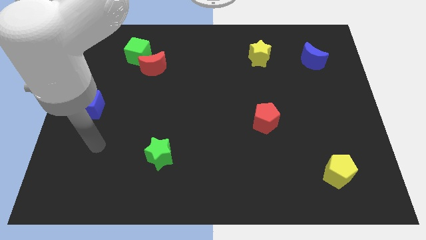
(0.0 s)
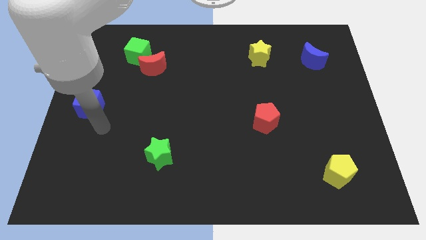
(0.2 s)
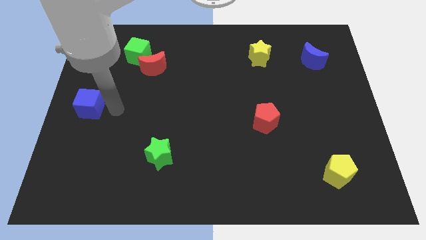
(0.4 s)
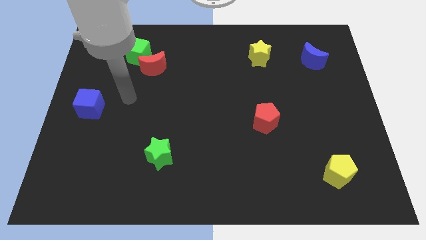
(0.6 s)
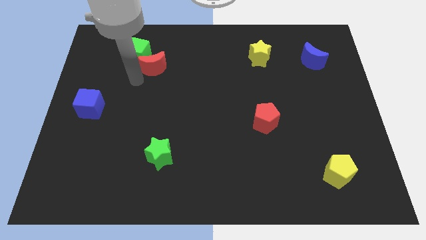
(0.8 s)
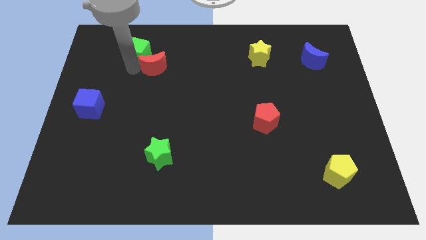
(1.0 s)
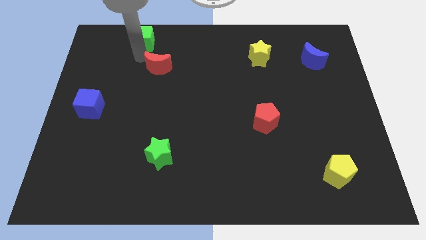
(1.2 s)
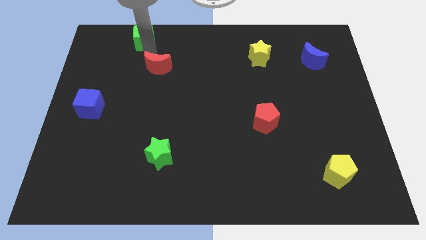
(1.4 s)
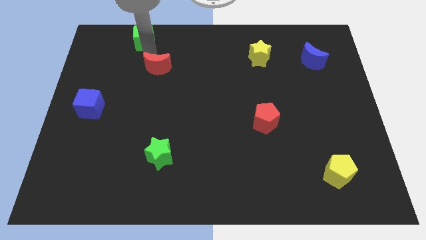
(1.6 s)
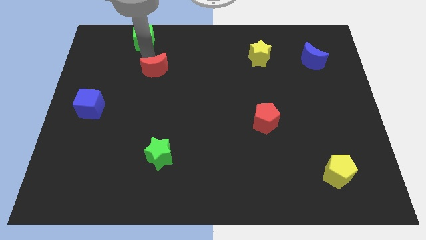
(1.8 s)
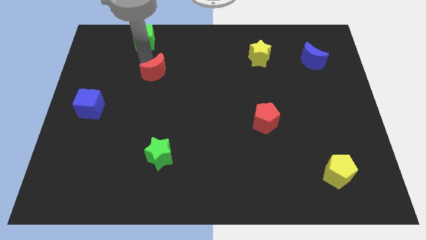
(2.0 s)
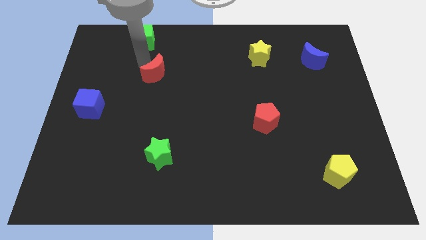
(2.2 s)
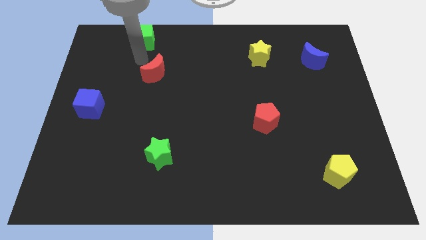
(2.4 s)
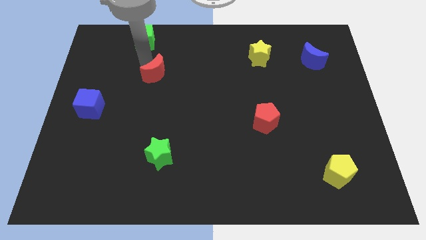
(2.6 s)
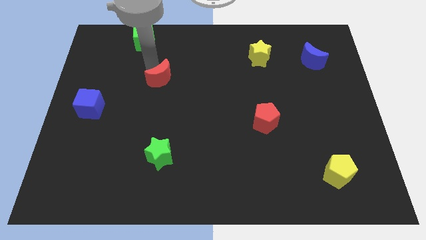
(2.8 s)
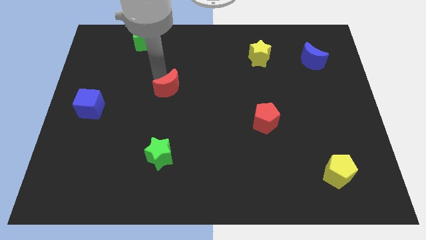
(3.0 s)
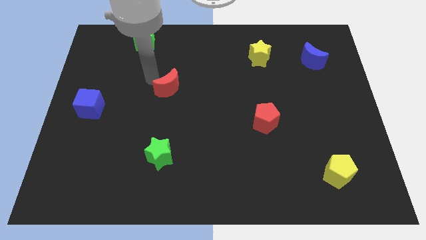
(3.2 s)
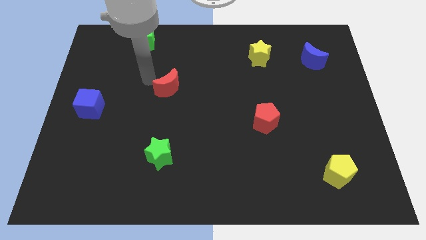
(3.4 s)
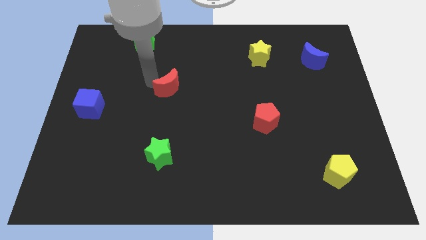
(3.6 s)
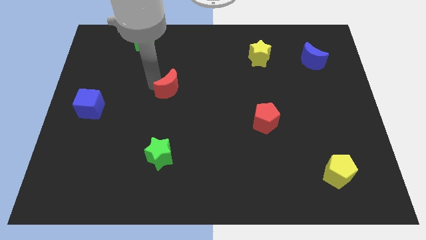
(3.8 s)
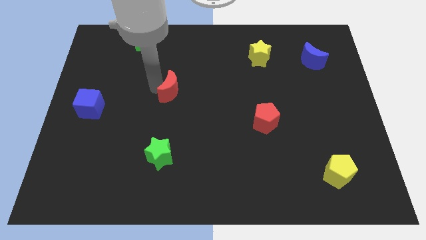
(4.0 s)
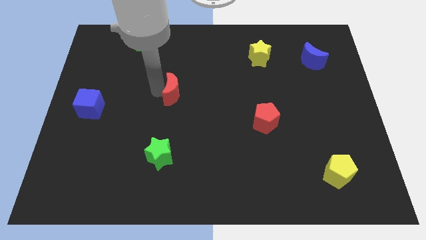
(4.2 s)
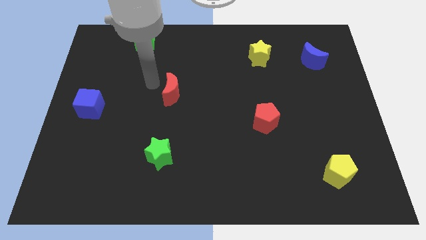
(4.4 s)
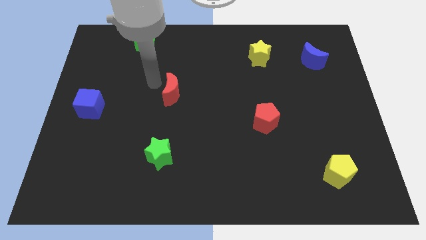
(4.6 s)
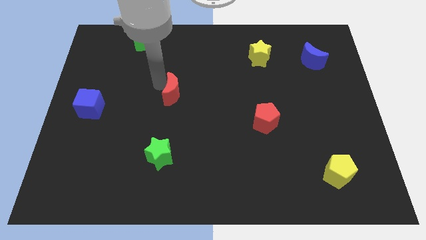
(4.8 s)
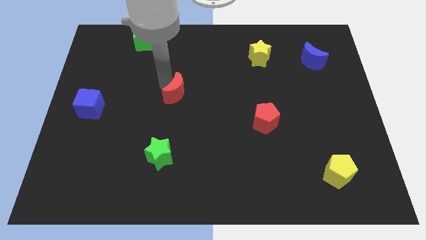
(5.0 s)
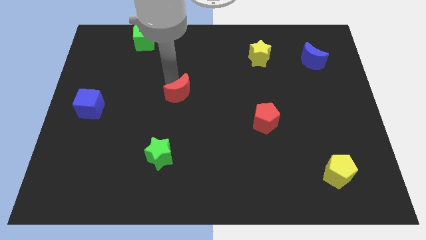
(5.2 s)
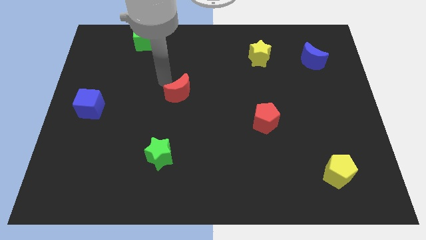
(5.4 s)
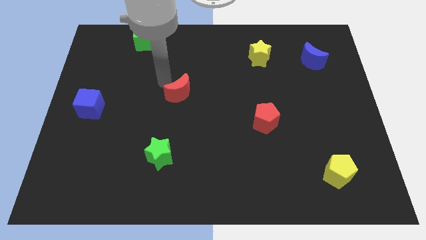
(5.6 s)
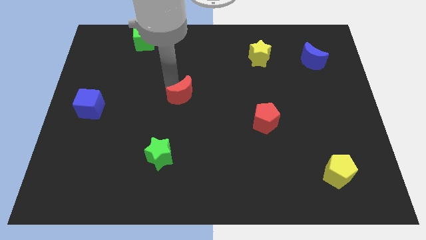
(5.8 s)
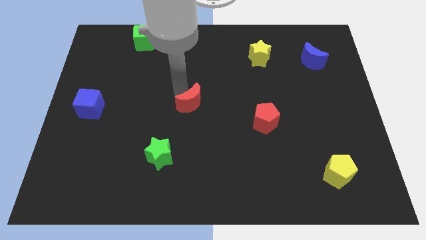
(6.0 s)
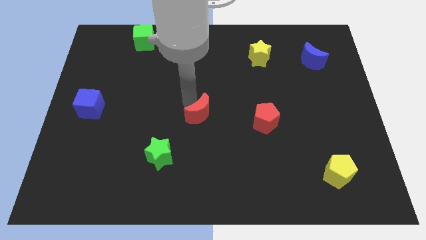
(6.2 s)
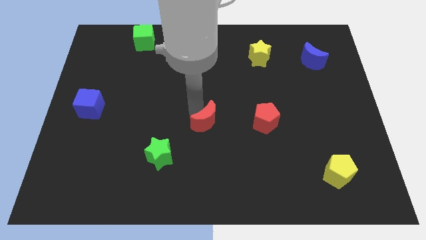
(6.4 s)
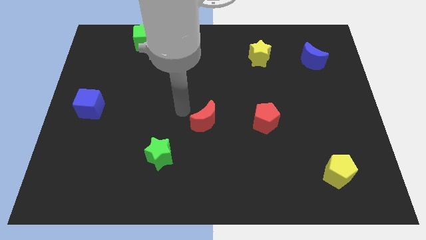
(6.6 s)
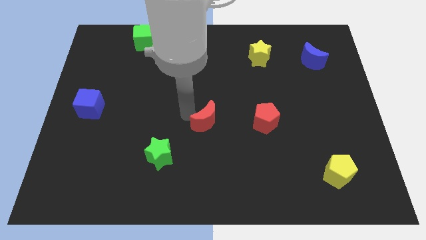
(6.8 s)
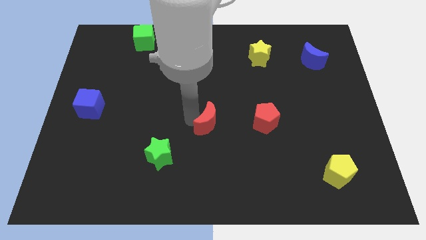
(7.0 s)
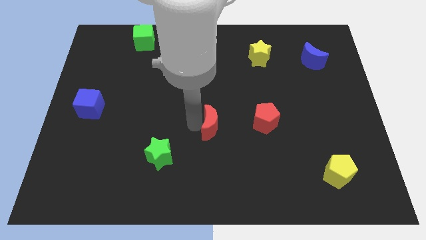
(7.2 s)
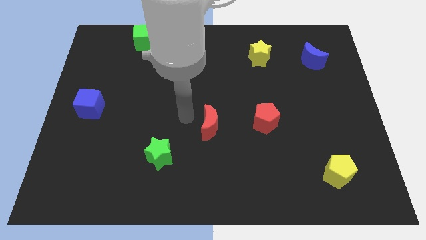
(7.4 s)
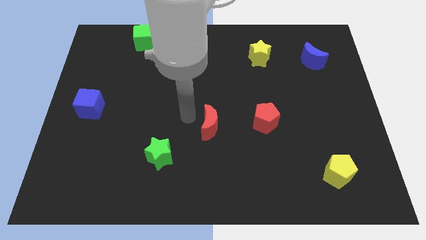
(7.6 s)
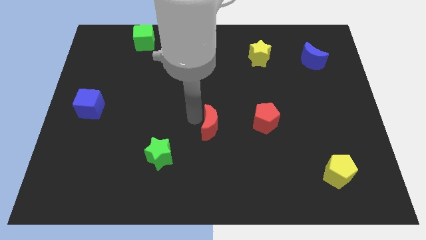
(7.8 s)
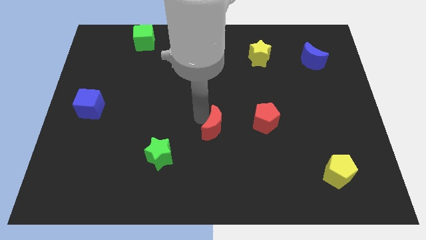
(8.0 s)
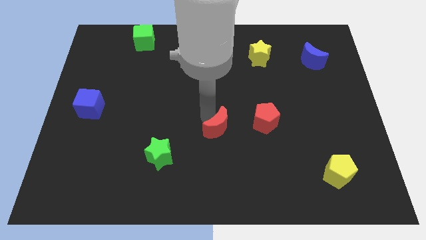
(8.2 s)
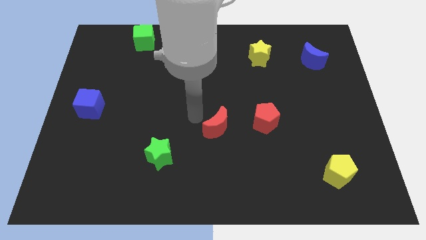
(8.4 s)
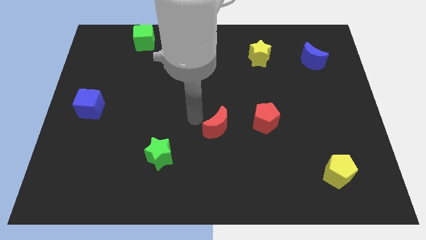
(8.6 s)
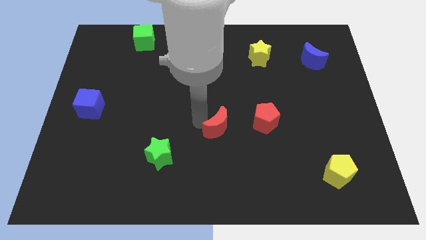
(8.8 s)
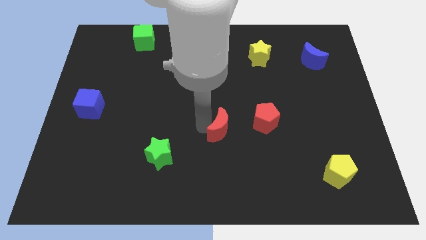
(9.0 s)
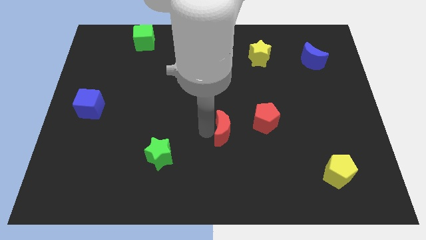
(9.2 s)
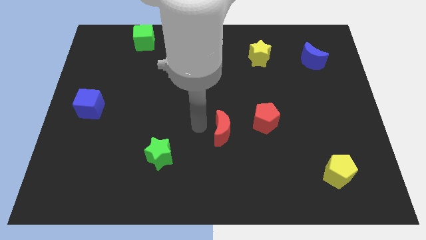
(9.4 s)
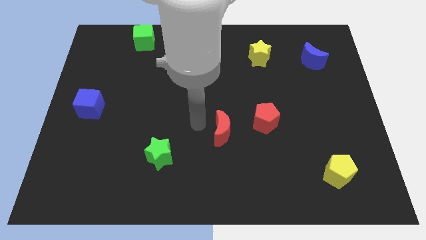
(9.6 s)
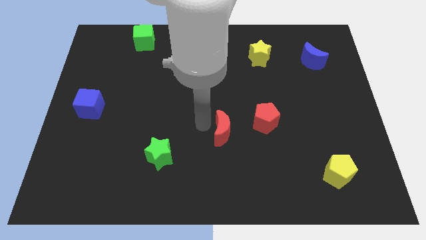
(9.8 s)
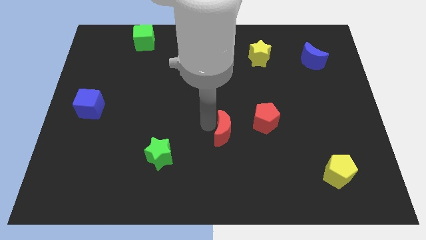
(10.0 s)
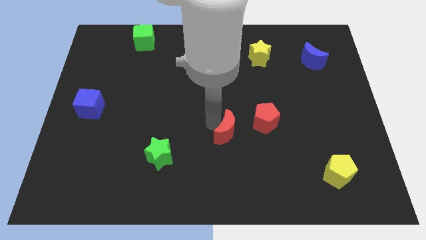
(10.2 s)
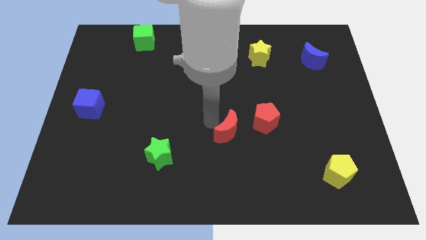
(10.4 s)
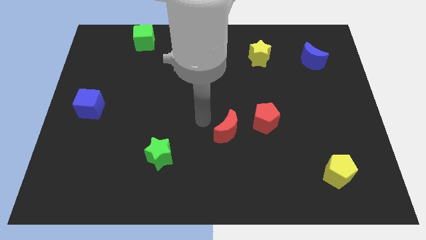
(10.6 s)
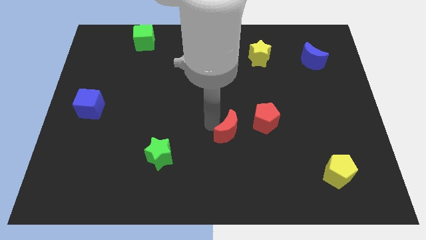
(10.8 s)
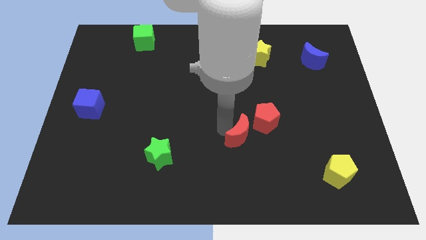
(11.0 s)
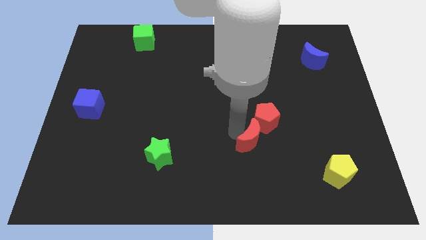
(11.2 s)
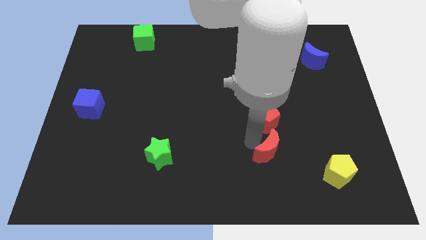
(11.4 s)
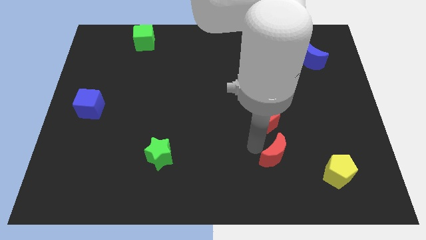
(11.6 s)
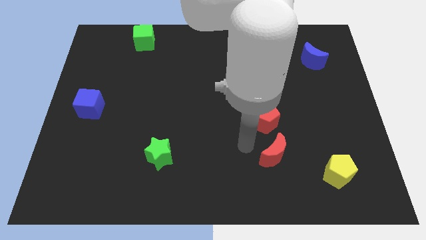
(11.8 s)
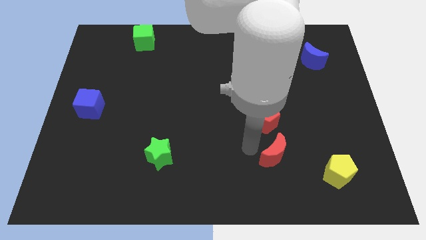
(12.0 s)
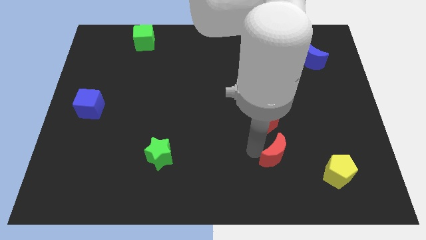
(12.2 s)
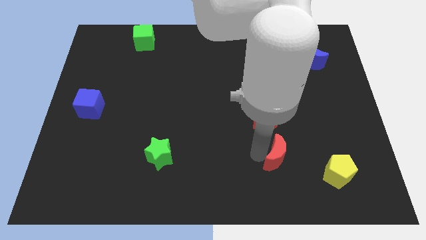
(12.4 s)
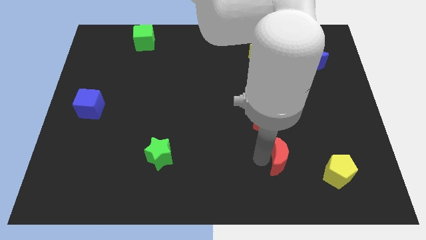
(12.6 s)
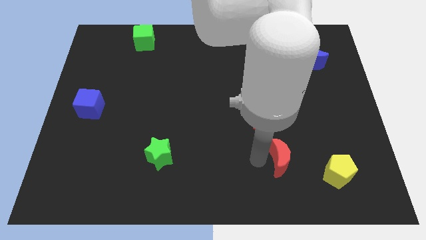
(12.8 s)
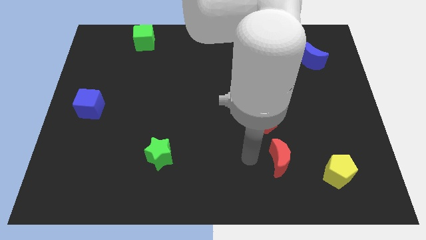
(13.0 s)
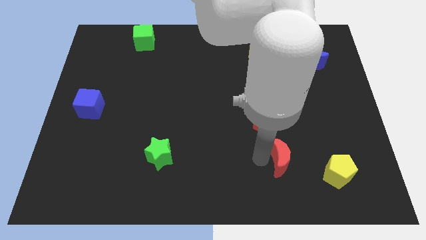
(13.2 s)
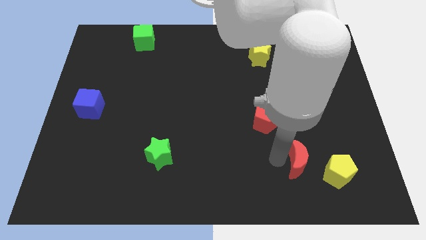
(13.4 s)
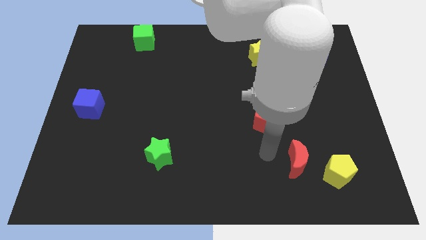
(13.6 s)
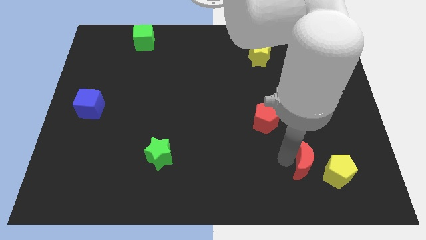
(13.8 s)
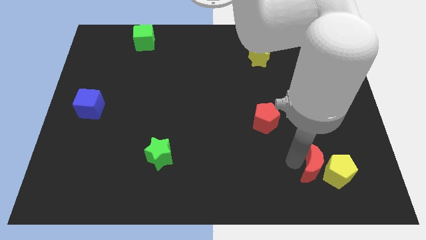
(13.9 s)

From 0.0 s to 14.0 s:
push the red moon towards the yellow pentagon

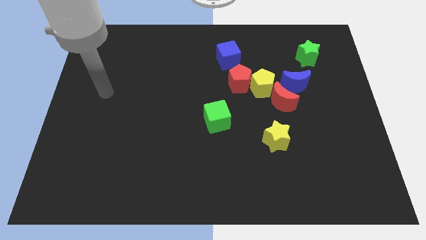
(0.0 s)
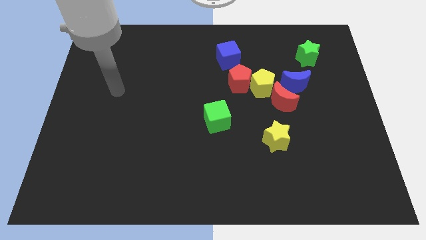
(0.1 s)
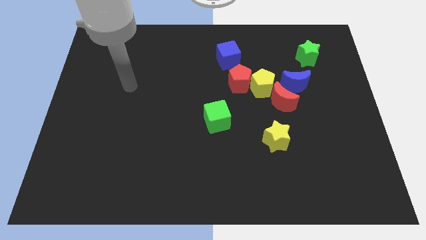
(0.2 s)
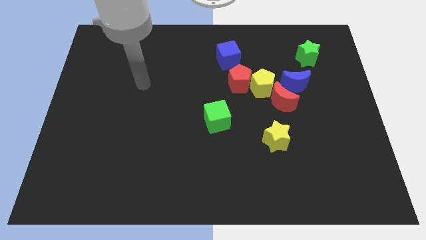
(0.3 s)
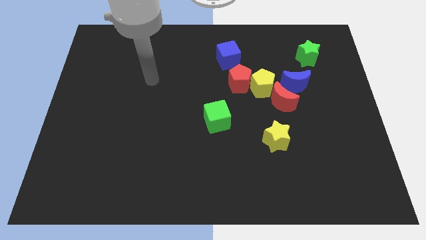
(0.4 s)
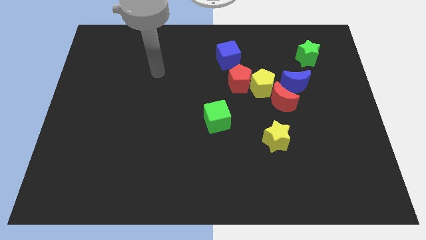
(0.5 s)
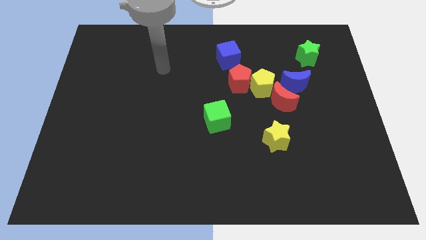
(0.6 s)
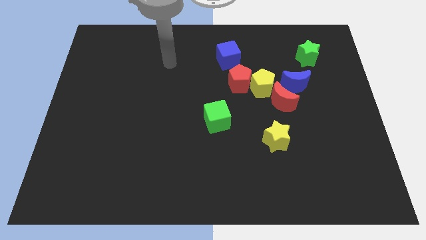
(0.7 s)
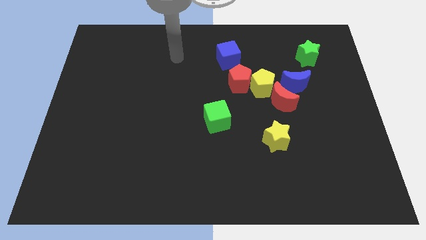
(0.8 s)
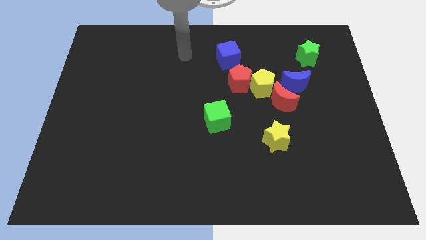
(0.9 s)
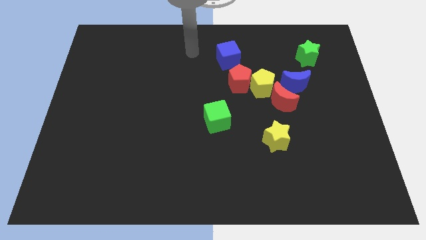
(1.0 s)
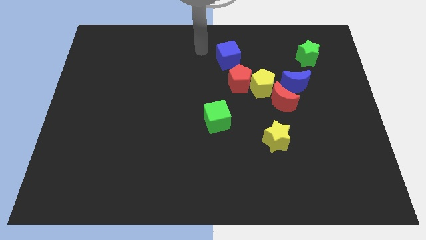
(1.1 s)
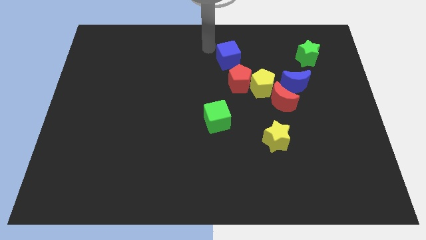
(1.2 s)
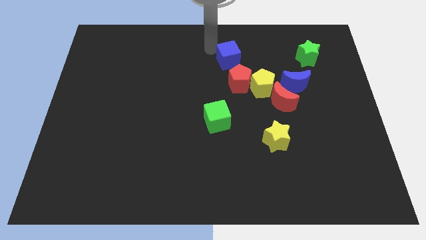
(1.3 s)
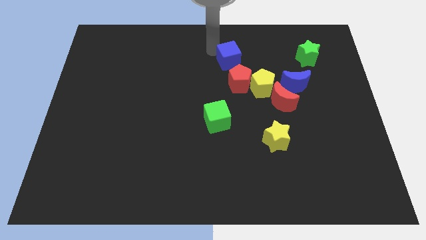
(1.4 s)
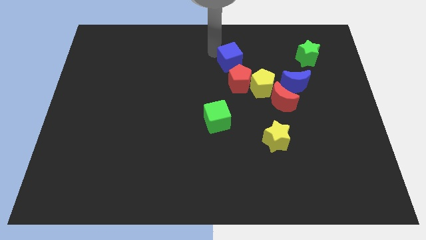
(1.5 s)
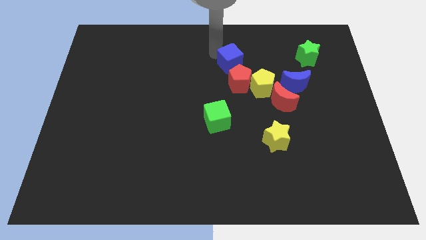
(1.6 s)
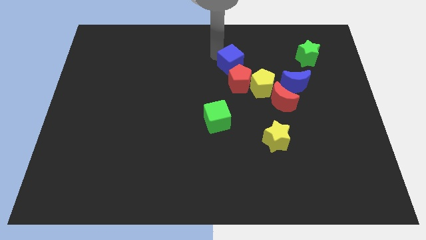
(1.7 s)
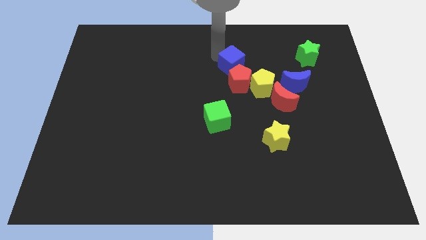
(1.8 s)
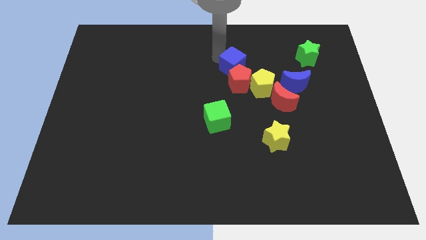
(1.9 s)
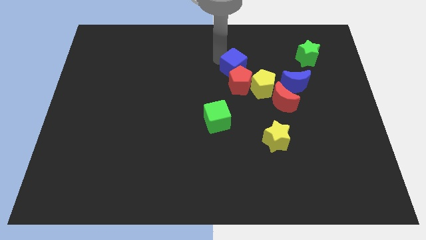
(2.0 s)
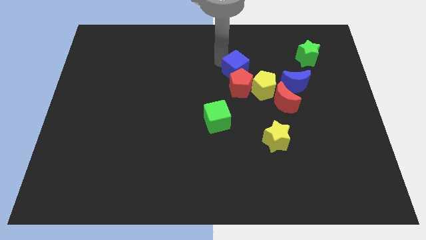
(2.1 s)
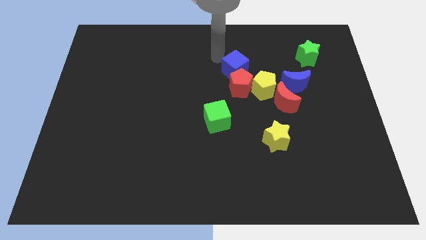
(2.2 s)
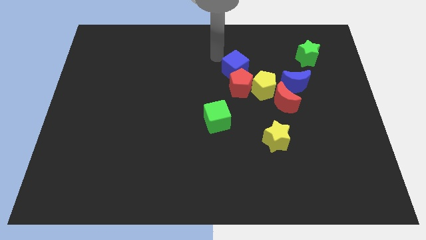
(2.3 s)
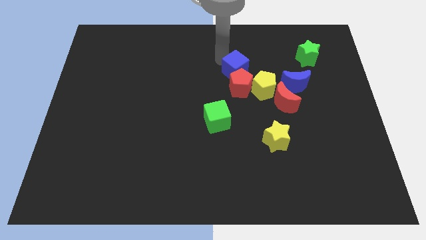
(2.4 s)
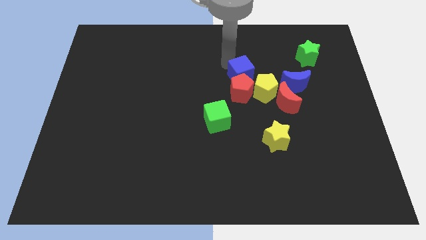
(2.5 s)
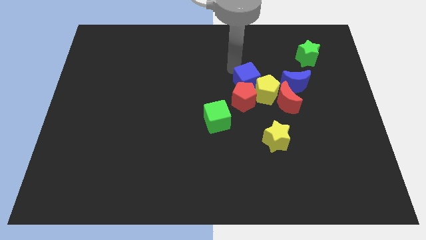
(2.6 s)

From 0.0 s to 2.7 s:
put the blue cube to the yellow pentagon
